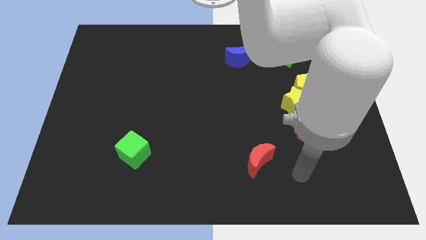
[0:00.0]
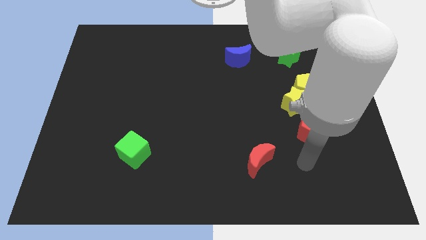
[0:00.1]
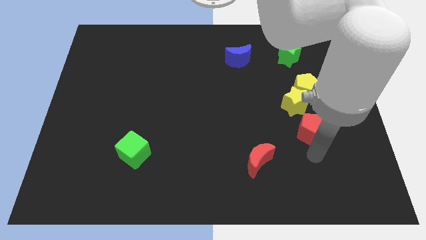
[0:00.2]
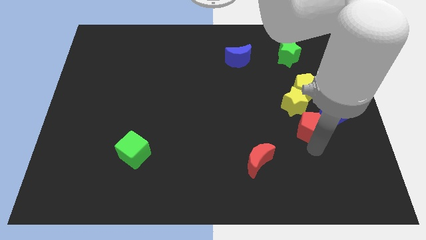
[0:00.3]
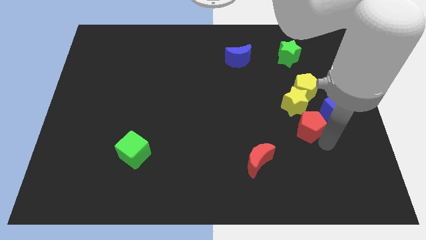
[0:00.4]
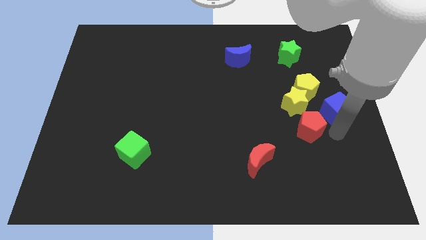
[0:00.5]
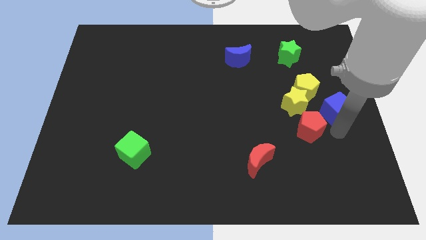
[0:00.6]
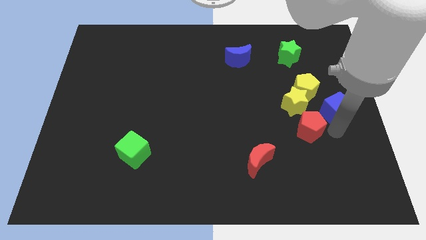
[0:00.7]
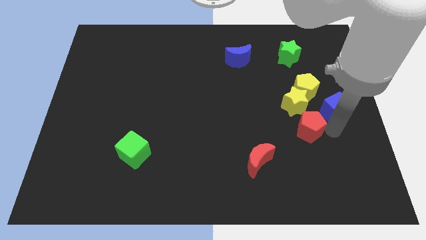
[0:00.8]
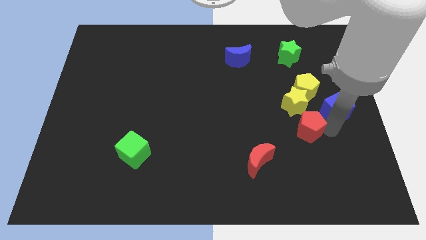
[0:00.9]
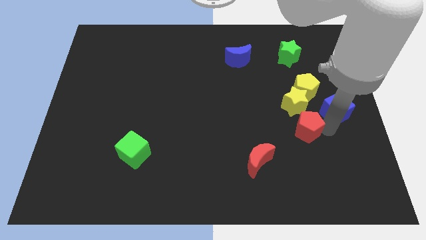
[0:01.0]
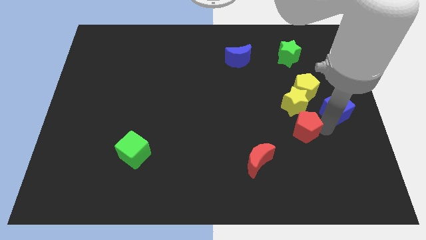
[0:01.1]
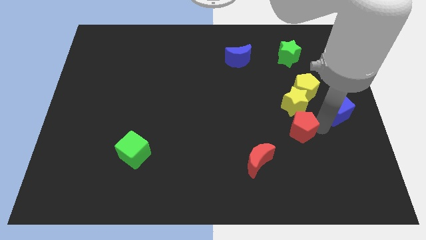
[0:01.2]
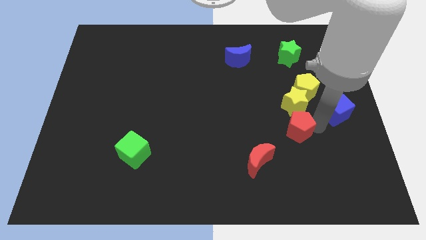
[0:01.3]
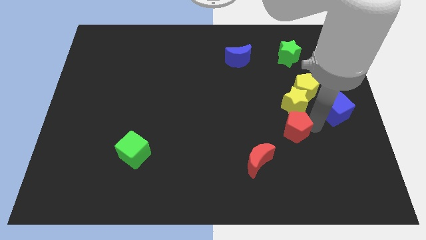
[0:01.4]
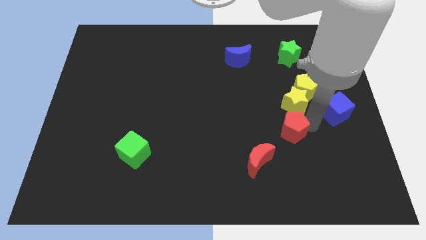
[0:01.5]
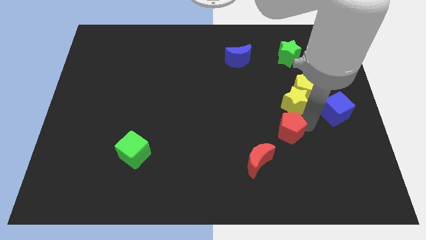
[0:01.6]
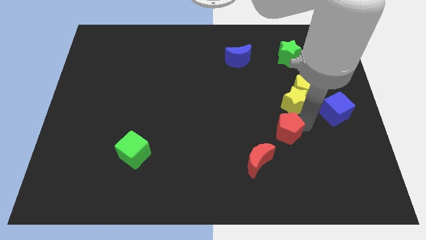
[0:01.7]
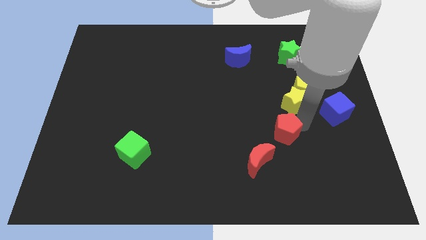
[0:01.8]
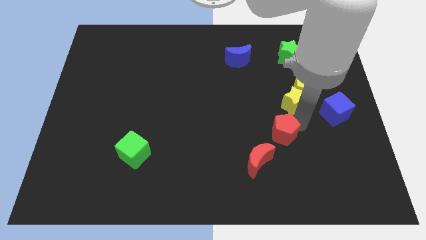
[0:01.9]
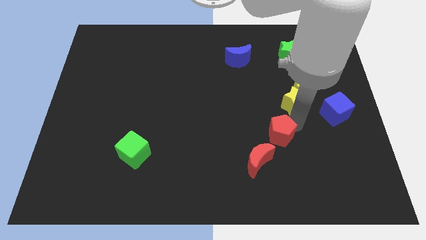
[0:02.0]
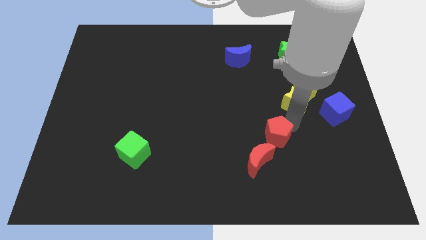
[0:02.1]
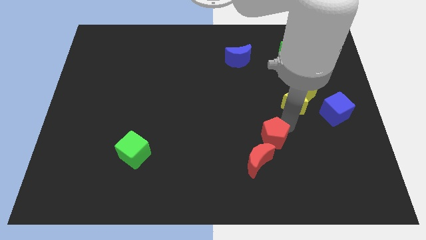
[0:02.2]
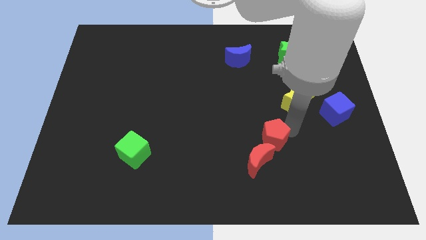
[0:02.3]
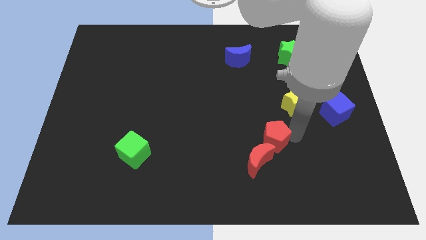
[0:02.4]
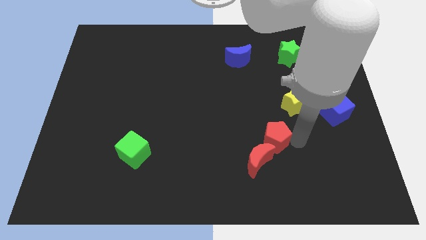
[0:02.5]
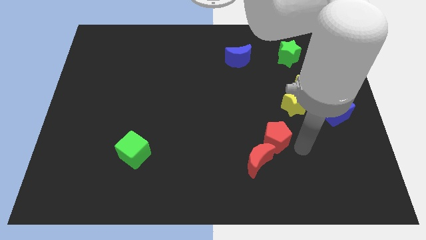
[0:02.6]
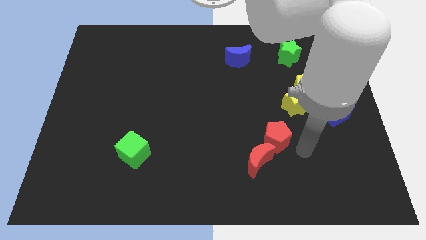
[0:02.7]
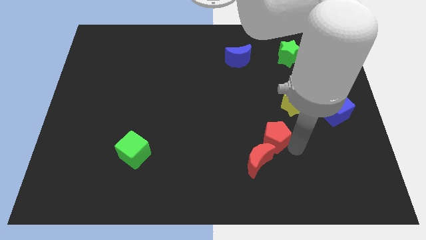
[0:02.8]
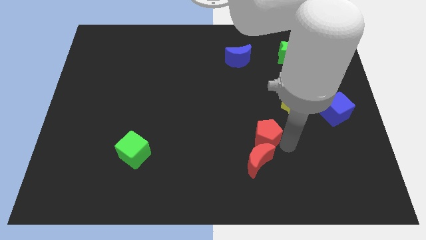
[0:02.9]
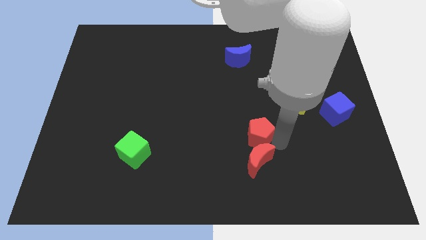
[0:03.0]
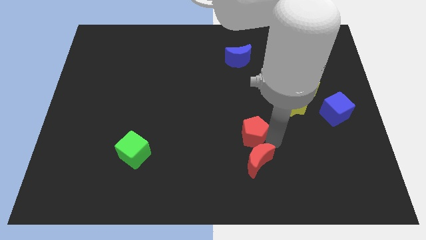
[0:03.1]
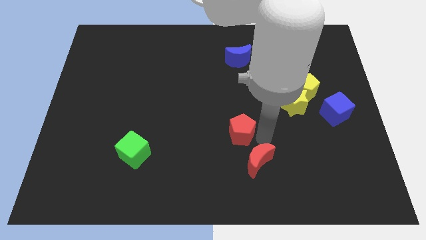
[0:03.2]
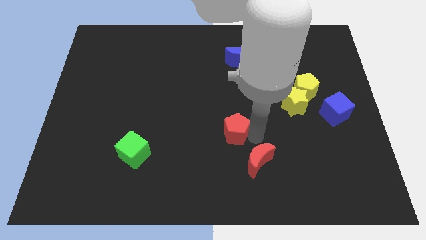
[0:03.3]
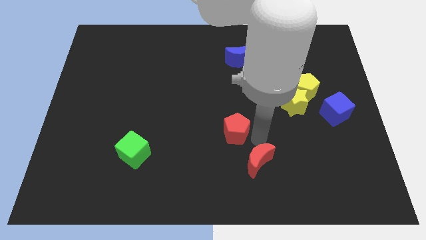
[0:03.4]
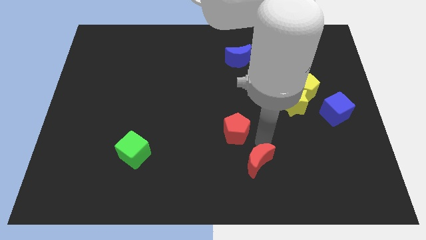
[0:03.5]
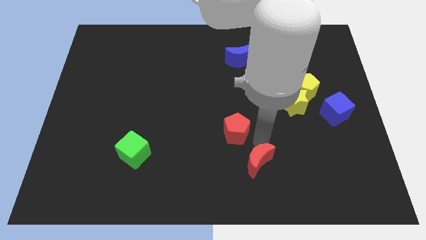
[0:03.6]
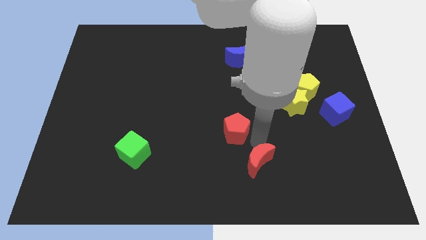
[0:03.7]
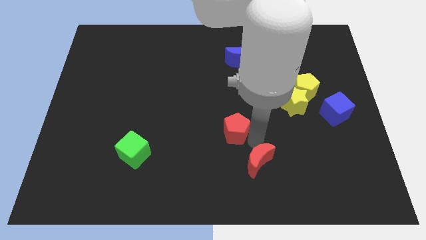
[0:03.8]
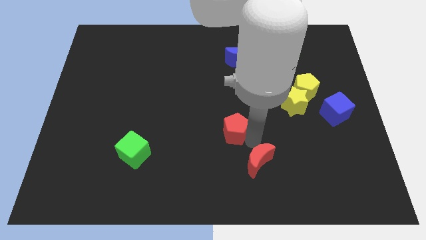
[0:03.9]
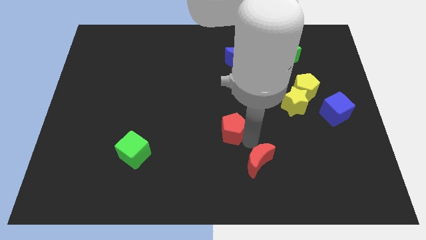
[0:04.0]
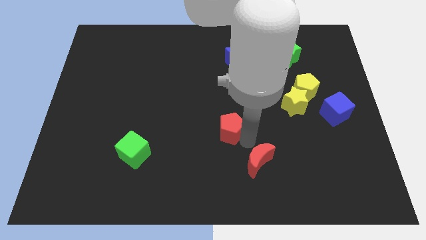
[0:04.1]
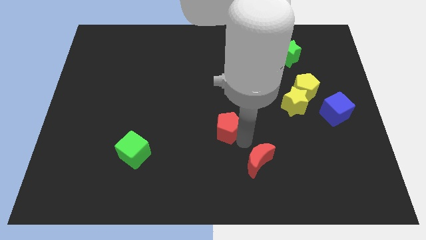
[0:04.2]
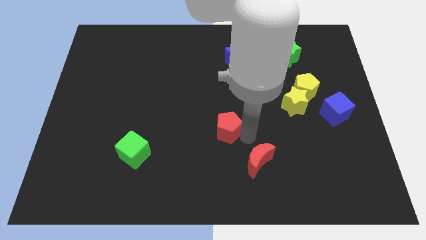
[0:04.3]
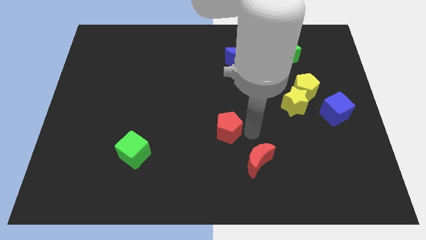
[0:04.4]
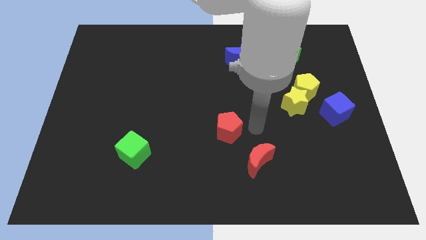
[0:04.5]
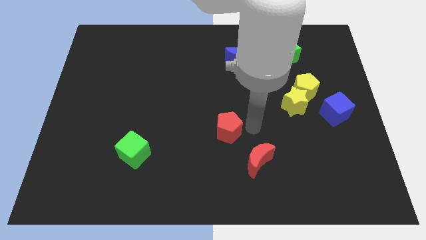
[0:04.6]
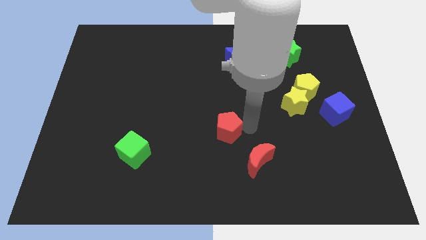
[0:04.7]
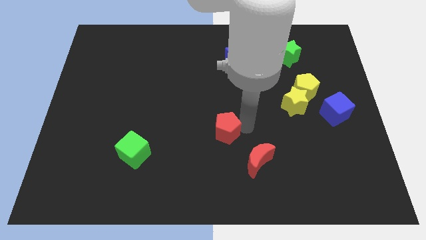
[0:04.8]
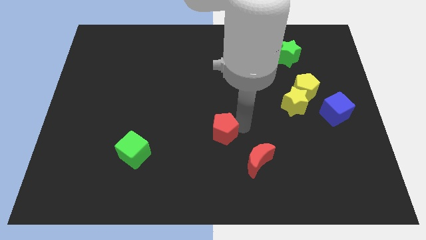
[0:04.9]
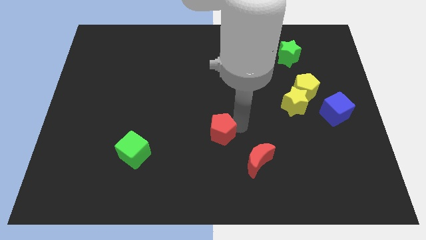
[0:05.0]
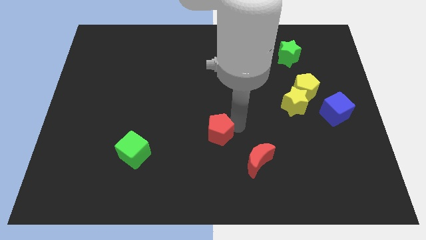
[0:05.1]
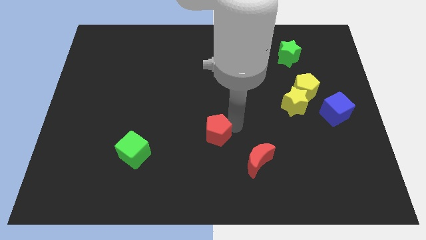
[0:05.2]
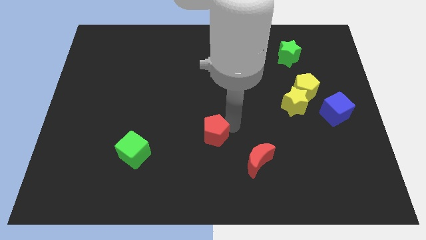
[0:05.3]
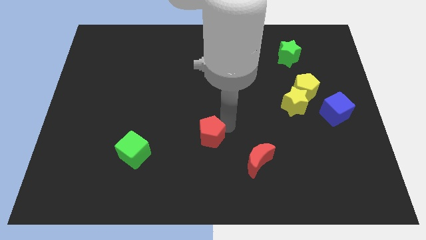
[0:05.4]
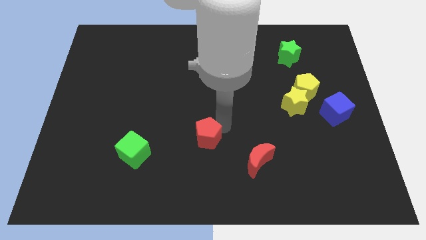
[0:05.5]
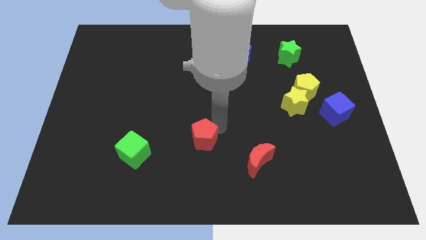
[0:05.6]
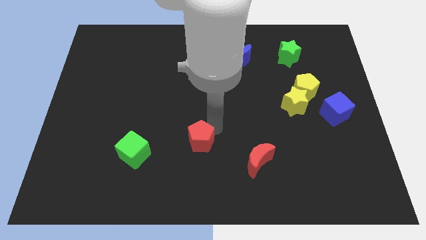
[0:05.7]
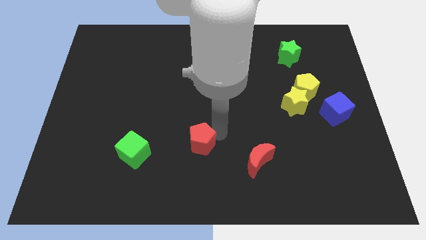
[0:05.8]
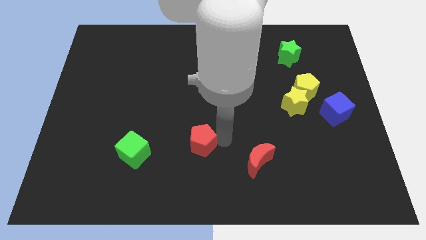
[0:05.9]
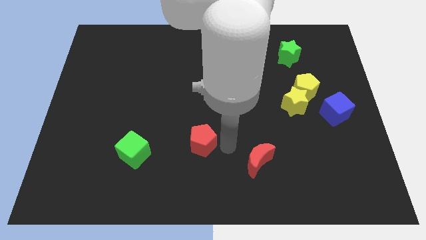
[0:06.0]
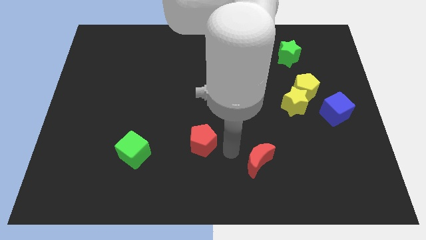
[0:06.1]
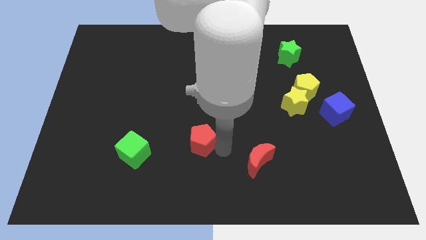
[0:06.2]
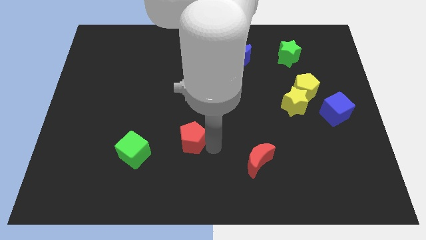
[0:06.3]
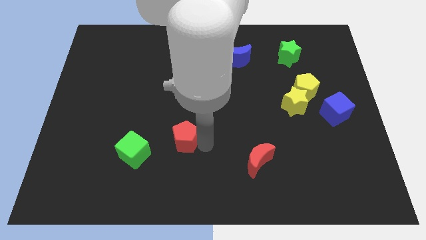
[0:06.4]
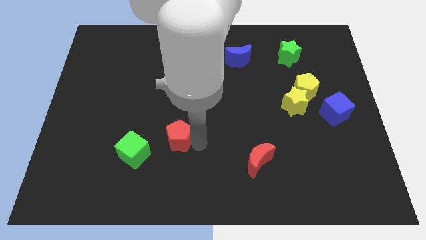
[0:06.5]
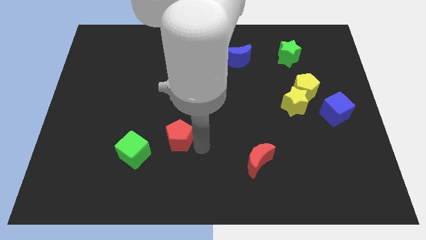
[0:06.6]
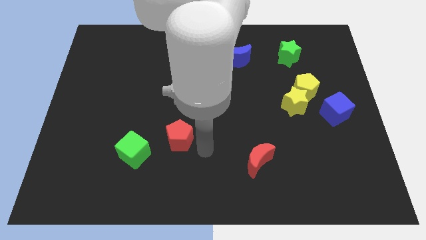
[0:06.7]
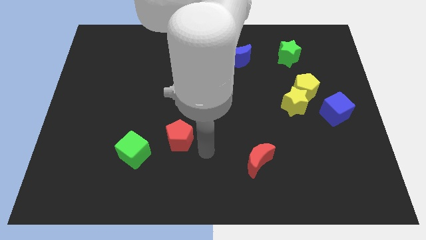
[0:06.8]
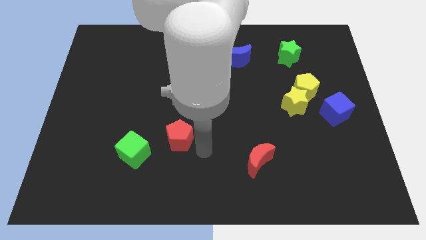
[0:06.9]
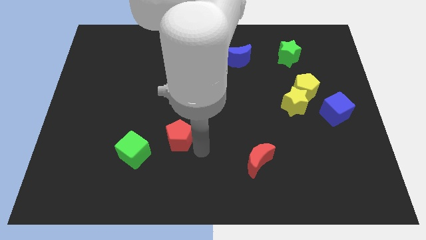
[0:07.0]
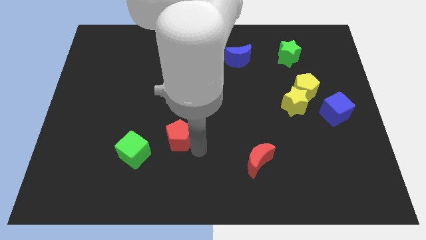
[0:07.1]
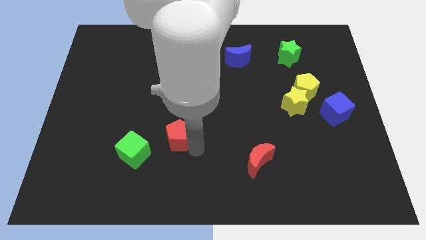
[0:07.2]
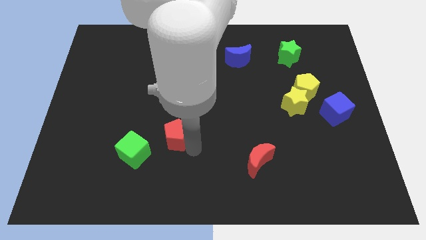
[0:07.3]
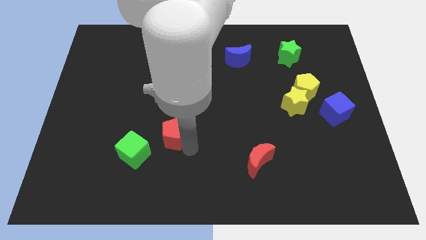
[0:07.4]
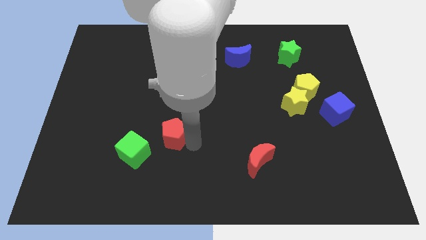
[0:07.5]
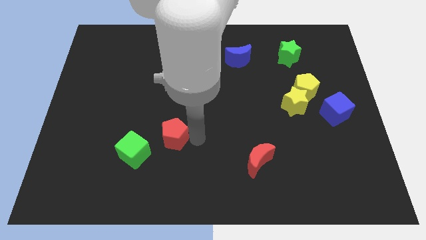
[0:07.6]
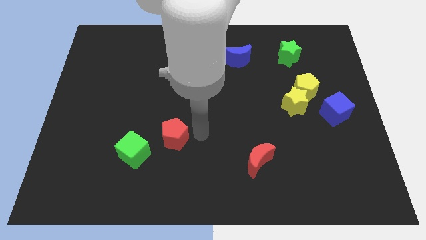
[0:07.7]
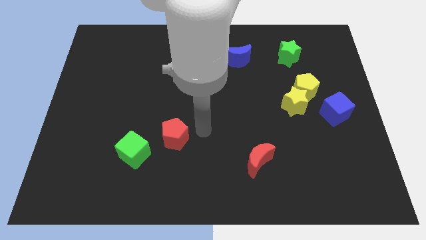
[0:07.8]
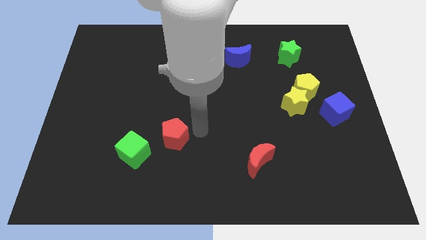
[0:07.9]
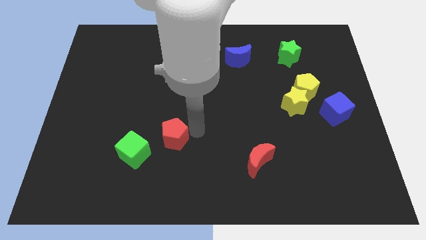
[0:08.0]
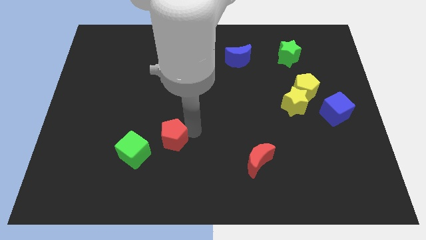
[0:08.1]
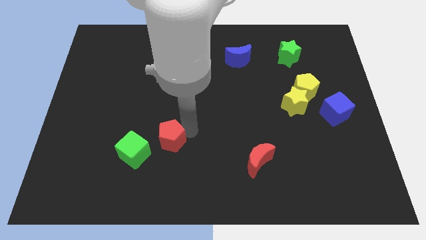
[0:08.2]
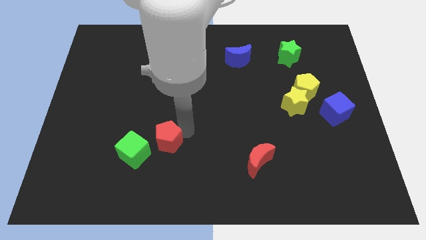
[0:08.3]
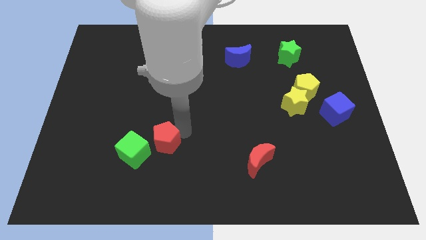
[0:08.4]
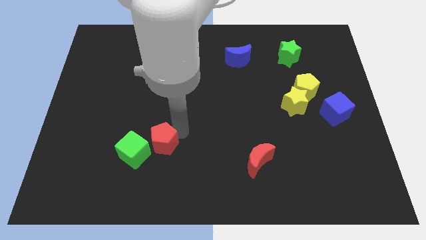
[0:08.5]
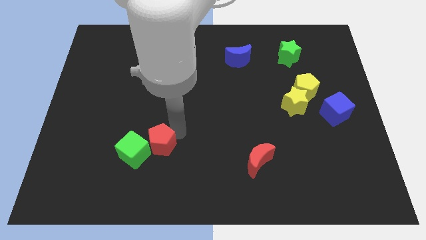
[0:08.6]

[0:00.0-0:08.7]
move the red pentagon next to the green cube
